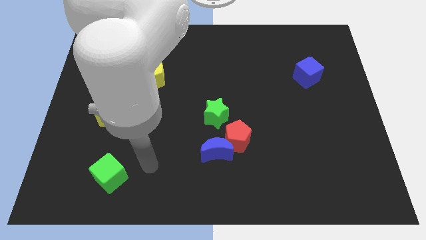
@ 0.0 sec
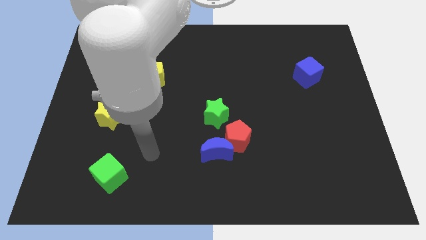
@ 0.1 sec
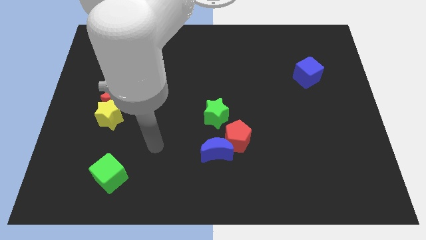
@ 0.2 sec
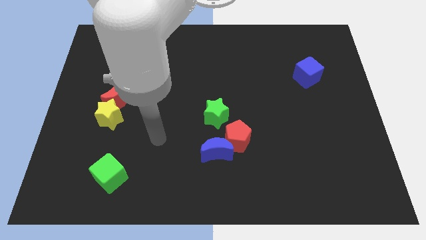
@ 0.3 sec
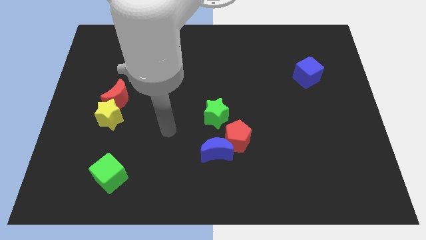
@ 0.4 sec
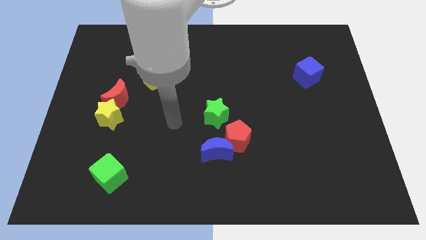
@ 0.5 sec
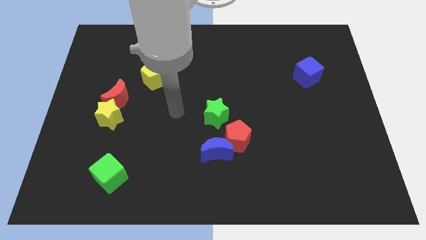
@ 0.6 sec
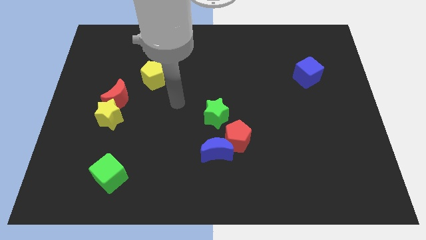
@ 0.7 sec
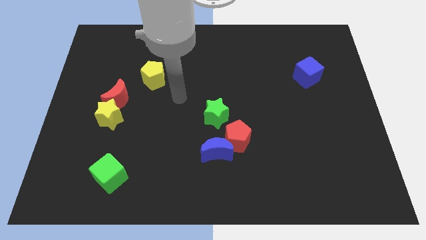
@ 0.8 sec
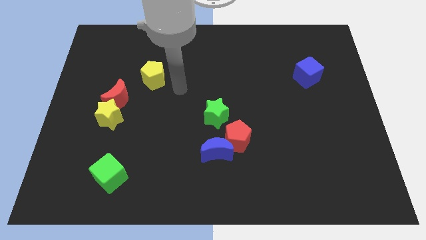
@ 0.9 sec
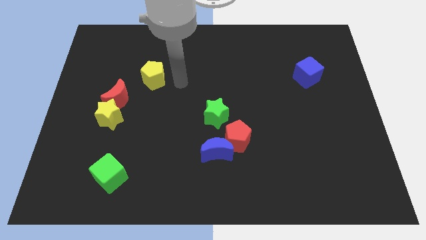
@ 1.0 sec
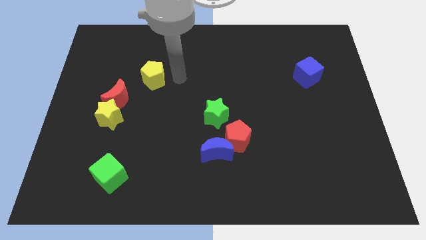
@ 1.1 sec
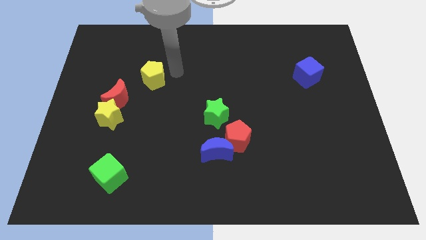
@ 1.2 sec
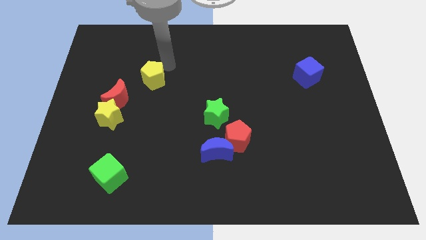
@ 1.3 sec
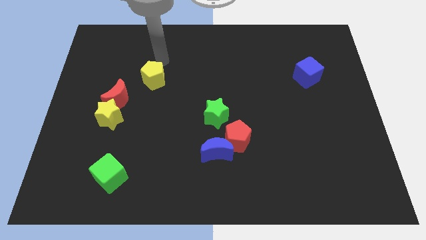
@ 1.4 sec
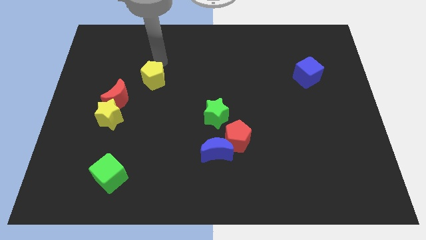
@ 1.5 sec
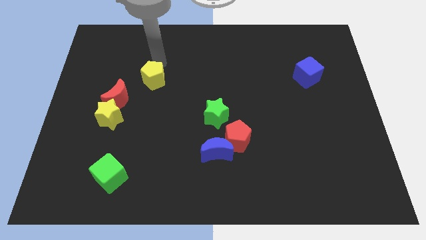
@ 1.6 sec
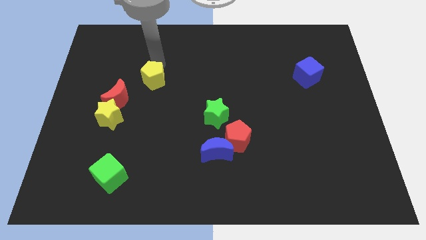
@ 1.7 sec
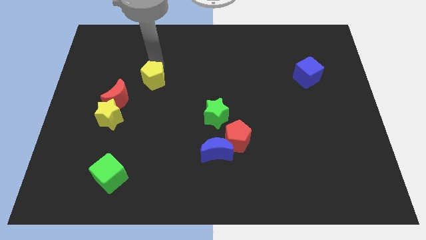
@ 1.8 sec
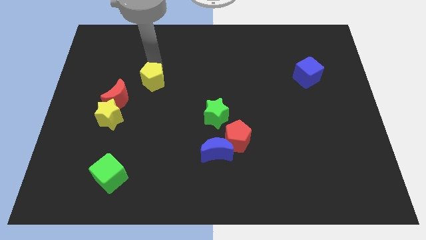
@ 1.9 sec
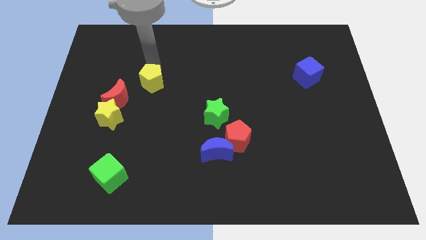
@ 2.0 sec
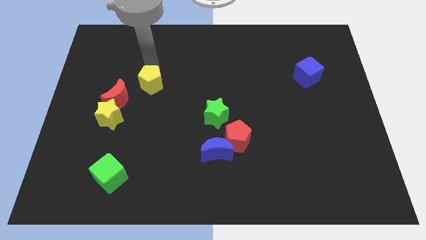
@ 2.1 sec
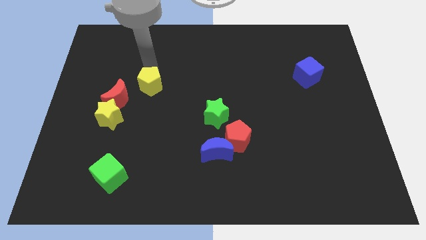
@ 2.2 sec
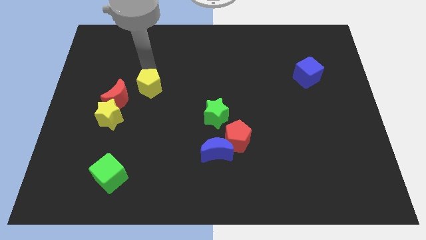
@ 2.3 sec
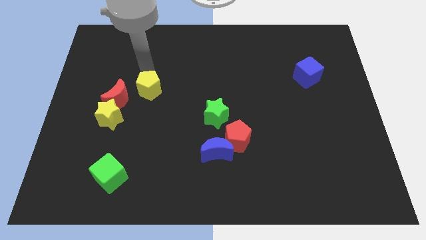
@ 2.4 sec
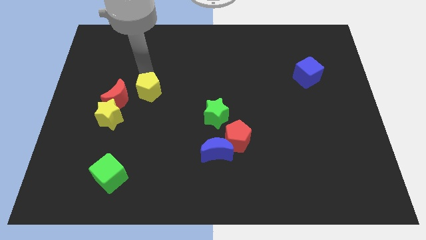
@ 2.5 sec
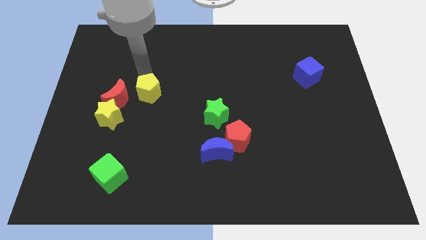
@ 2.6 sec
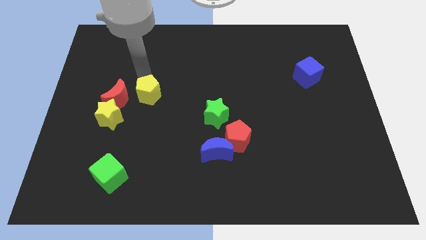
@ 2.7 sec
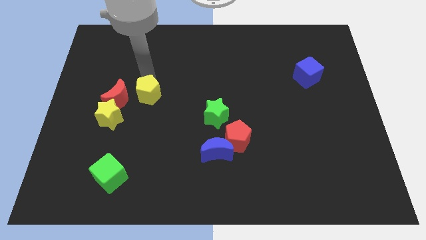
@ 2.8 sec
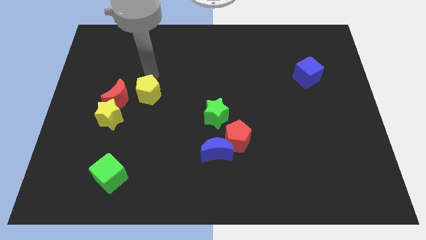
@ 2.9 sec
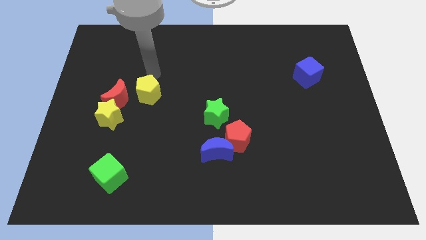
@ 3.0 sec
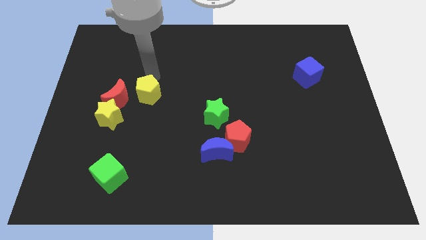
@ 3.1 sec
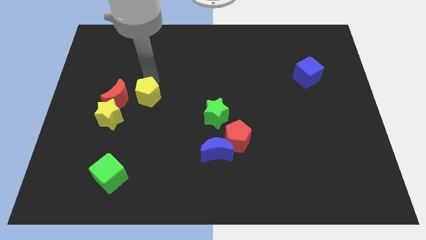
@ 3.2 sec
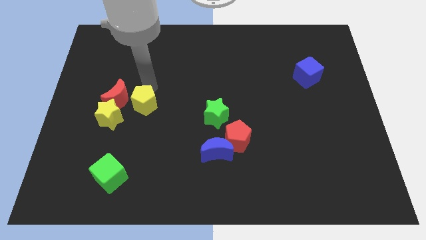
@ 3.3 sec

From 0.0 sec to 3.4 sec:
slightly slide the yellow pentagon downwards

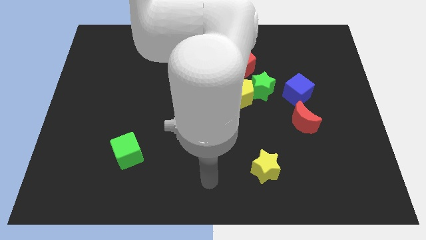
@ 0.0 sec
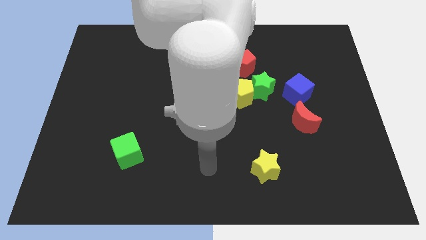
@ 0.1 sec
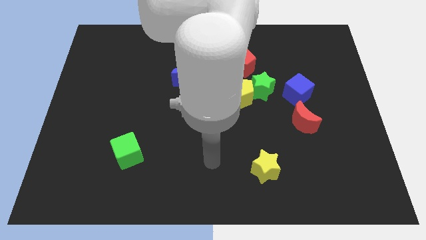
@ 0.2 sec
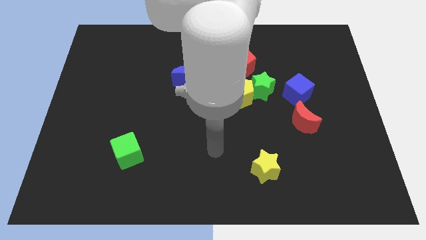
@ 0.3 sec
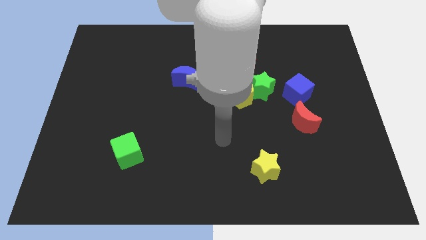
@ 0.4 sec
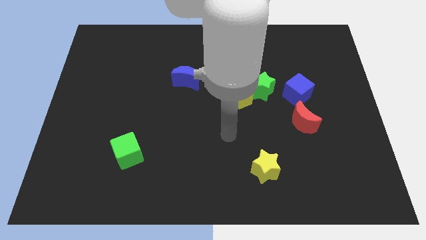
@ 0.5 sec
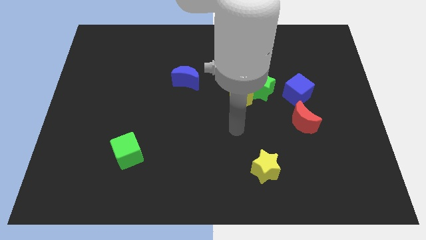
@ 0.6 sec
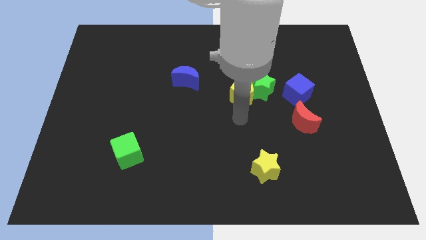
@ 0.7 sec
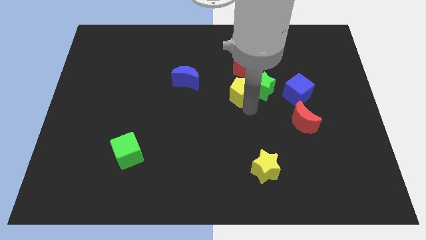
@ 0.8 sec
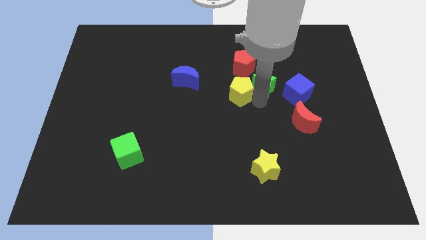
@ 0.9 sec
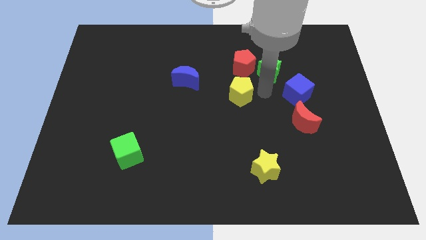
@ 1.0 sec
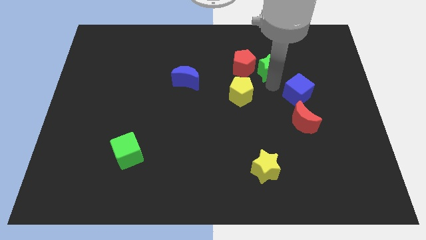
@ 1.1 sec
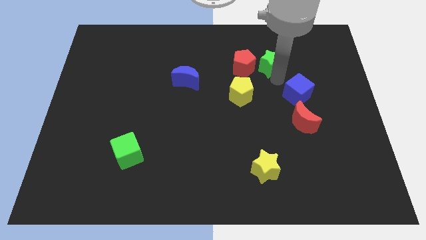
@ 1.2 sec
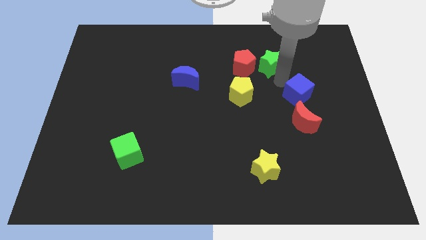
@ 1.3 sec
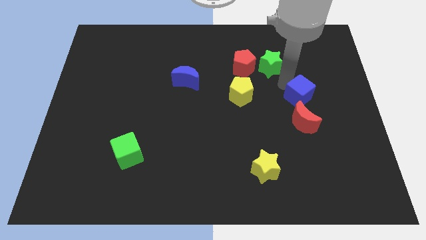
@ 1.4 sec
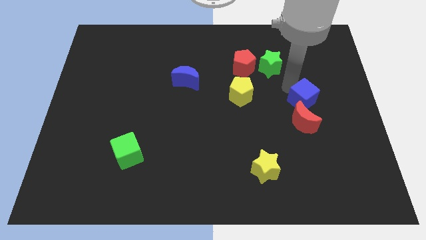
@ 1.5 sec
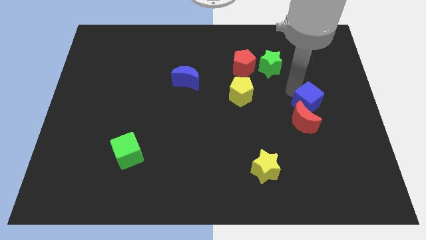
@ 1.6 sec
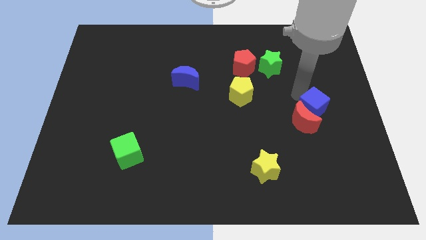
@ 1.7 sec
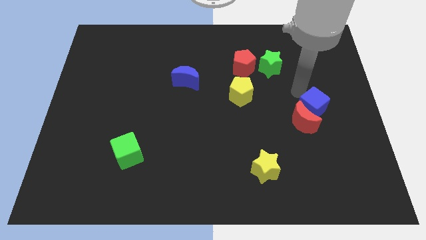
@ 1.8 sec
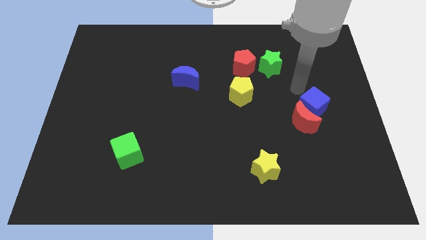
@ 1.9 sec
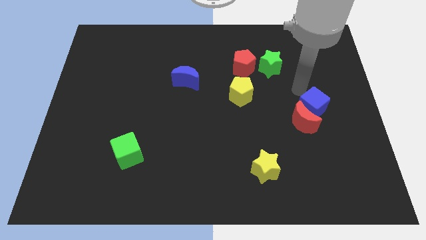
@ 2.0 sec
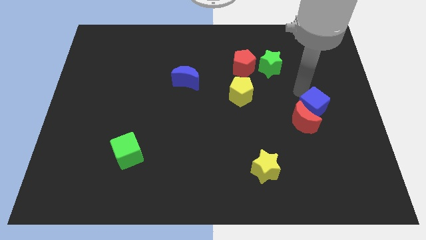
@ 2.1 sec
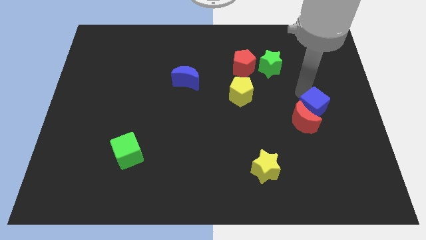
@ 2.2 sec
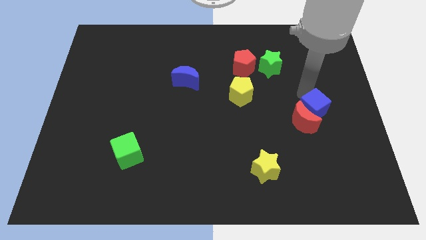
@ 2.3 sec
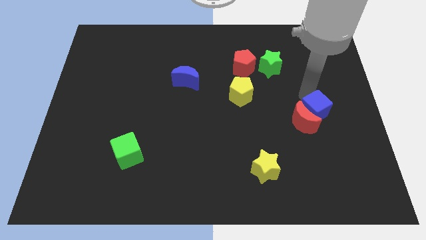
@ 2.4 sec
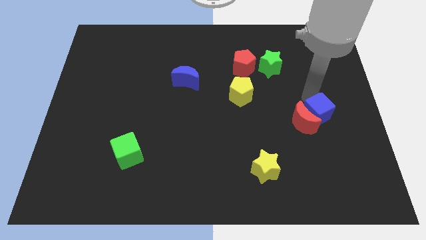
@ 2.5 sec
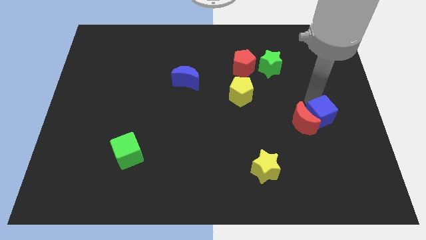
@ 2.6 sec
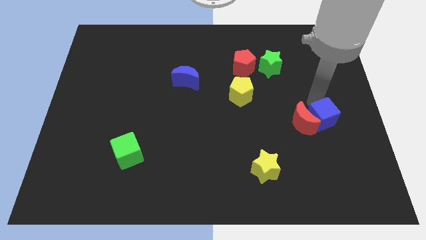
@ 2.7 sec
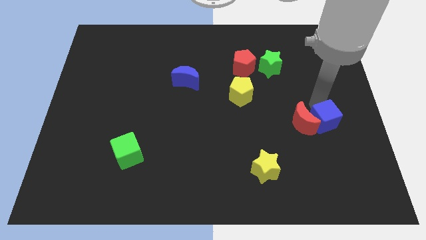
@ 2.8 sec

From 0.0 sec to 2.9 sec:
push the blue cube a little down

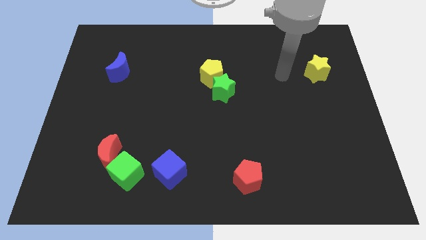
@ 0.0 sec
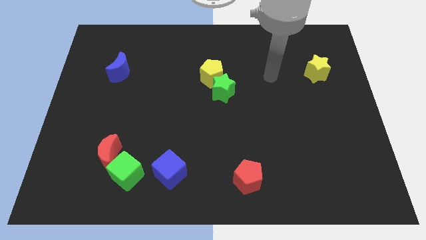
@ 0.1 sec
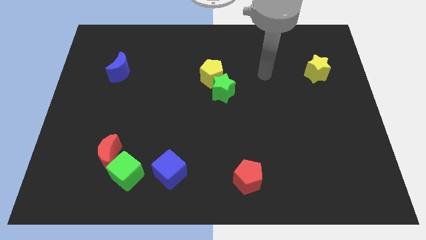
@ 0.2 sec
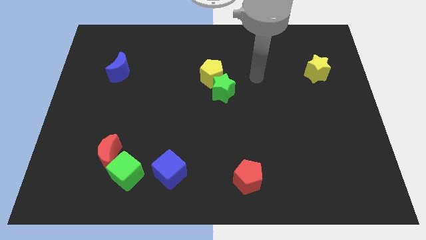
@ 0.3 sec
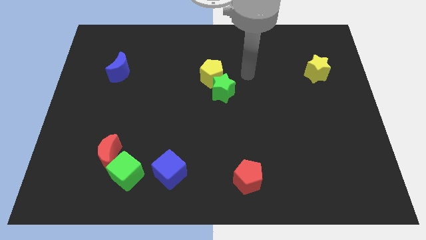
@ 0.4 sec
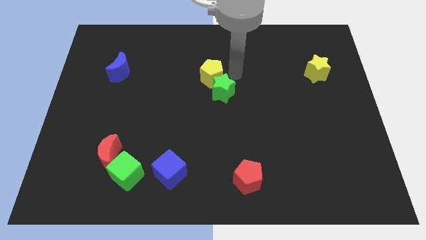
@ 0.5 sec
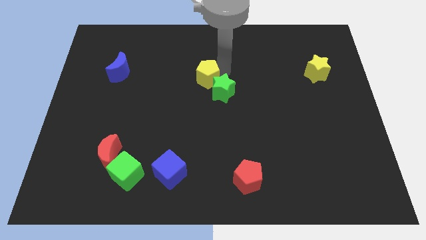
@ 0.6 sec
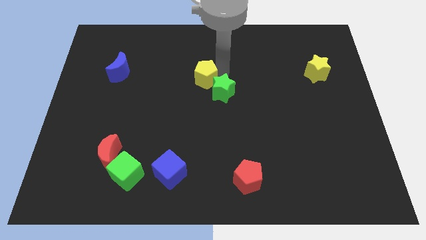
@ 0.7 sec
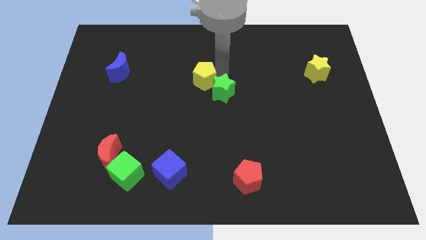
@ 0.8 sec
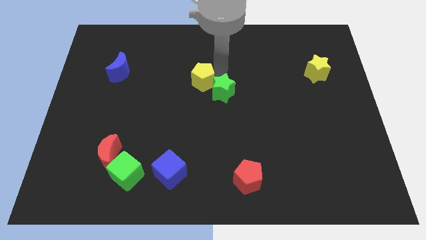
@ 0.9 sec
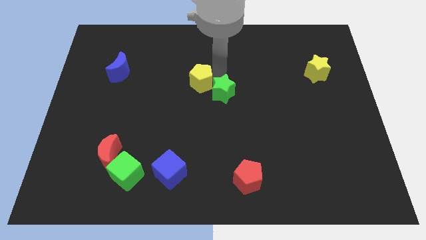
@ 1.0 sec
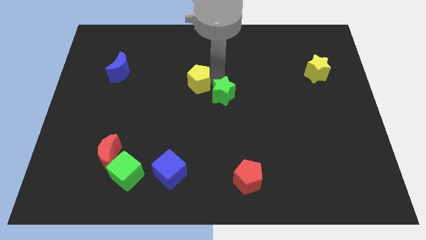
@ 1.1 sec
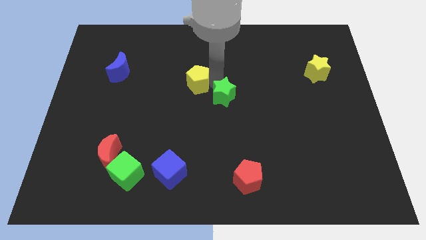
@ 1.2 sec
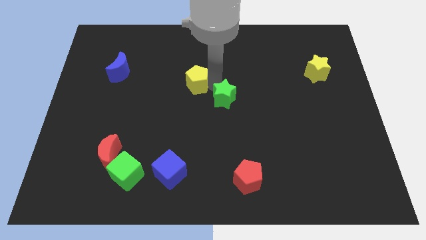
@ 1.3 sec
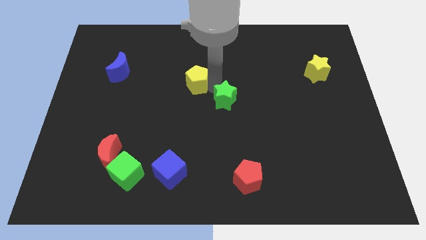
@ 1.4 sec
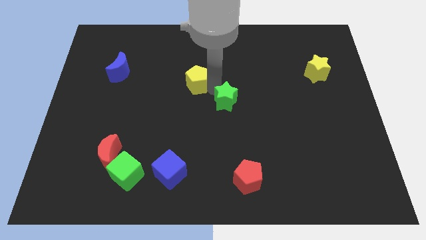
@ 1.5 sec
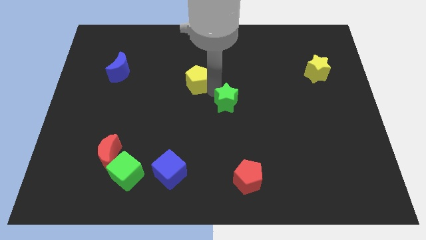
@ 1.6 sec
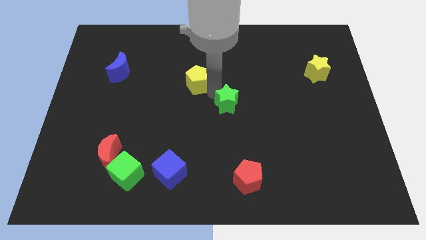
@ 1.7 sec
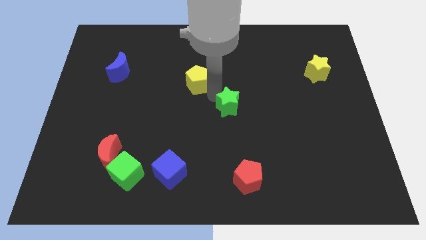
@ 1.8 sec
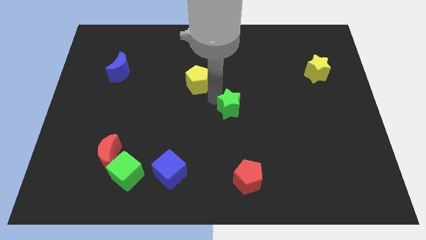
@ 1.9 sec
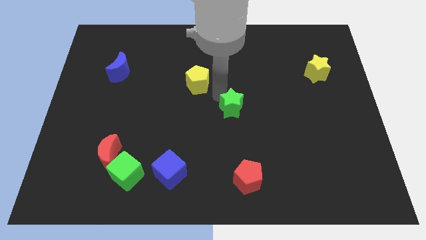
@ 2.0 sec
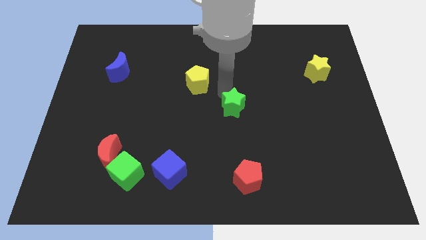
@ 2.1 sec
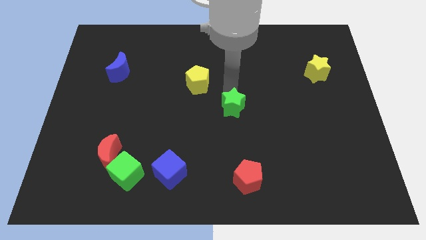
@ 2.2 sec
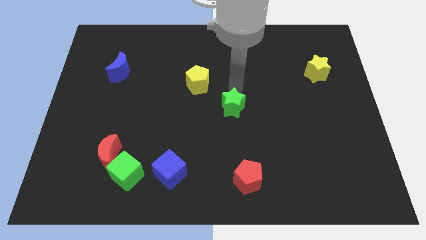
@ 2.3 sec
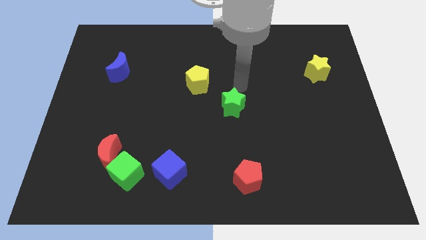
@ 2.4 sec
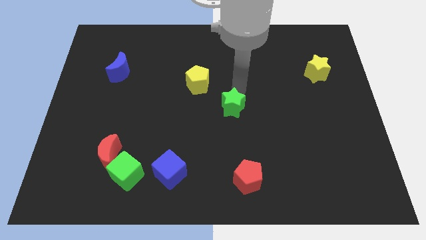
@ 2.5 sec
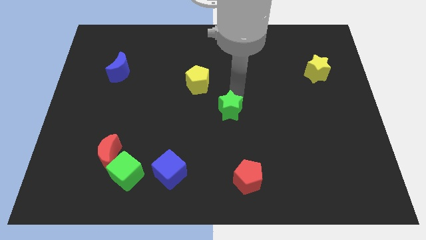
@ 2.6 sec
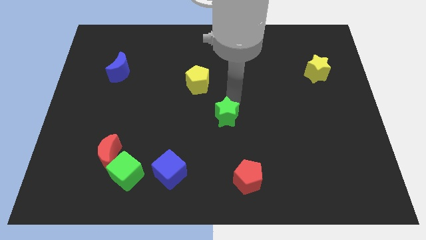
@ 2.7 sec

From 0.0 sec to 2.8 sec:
push the green star somewhat down
